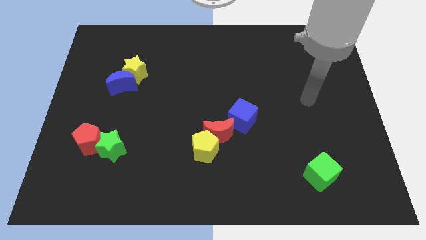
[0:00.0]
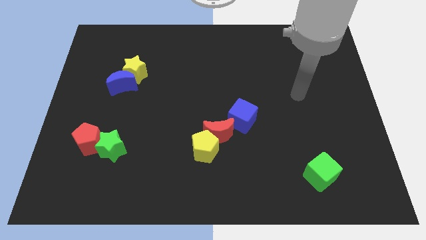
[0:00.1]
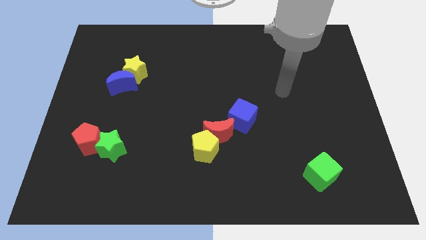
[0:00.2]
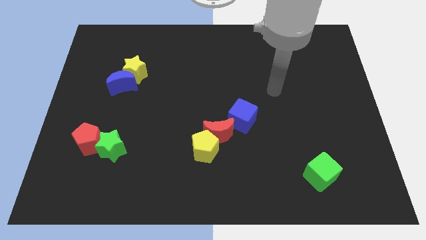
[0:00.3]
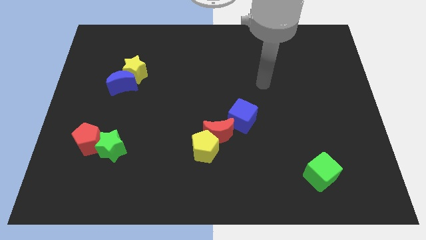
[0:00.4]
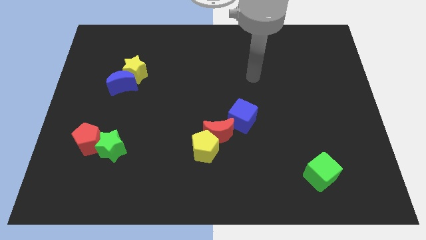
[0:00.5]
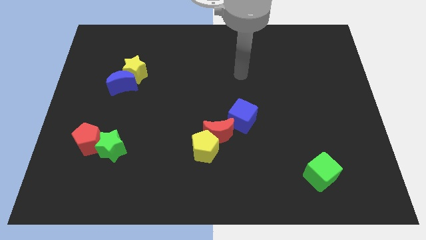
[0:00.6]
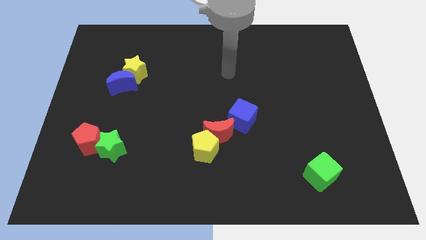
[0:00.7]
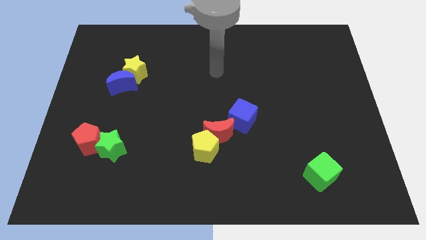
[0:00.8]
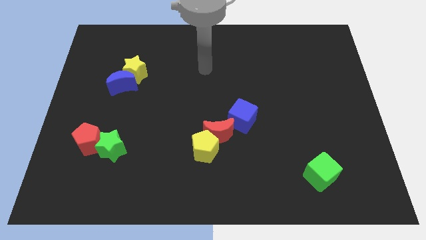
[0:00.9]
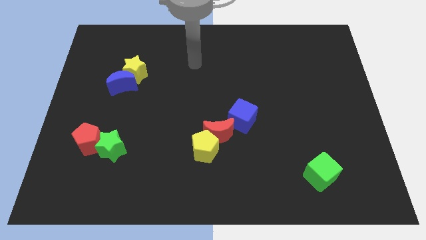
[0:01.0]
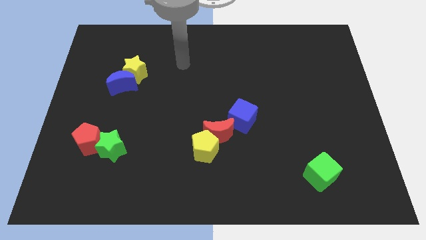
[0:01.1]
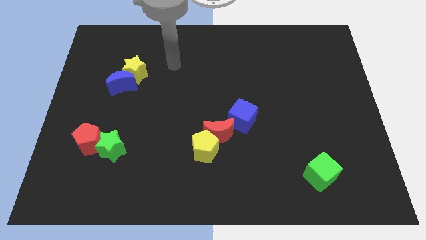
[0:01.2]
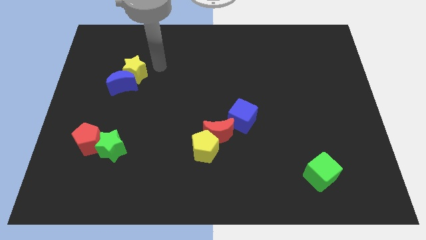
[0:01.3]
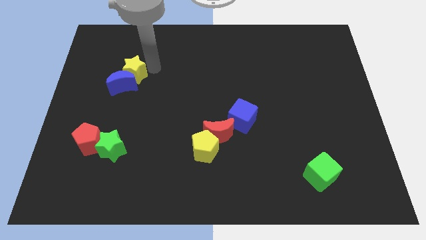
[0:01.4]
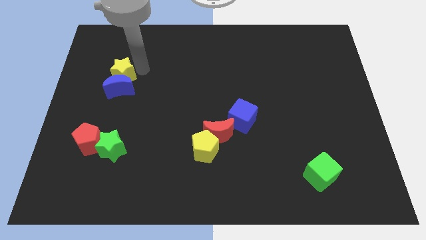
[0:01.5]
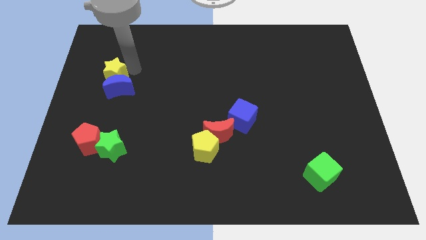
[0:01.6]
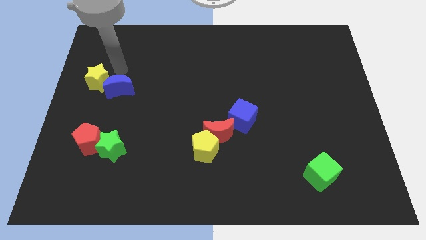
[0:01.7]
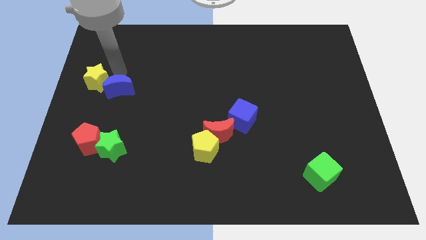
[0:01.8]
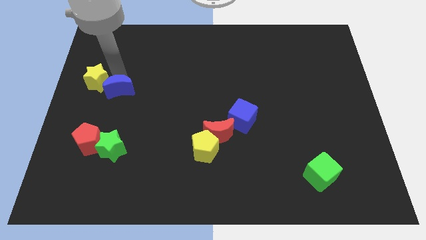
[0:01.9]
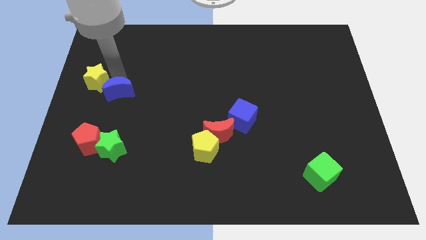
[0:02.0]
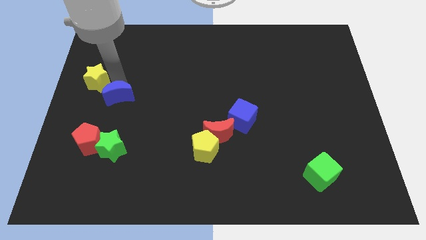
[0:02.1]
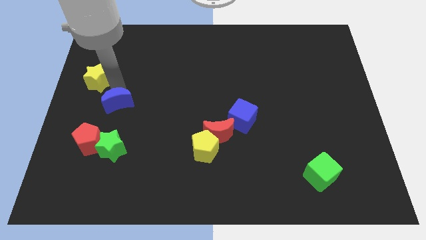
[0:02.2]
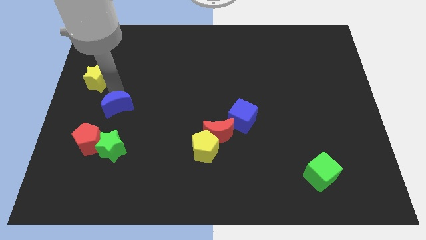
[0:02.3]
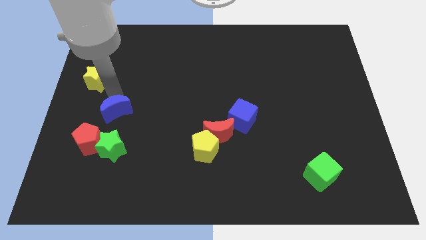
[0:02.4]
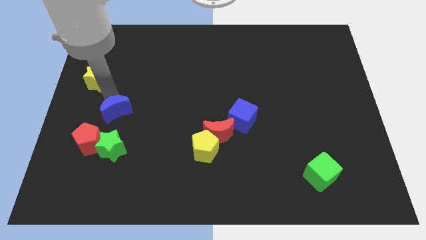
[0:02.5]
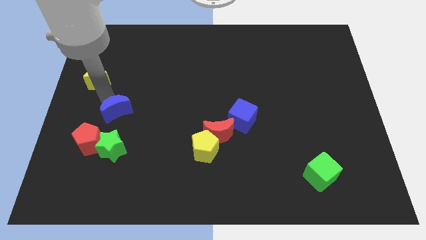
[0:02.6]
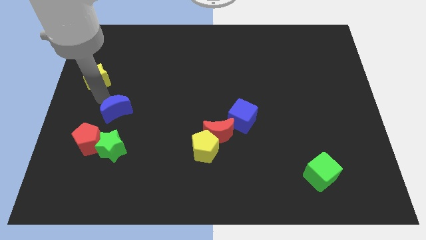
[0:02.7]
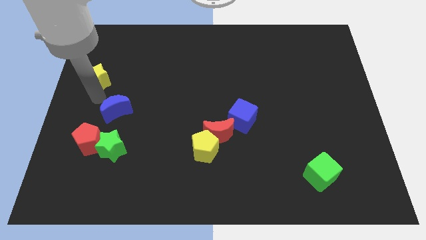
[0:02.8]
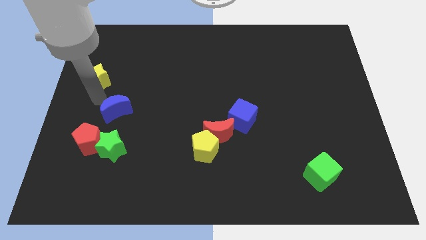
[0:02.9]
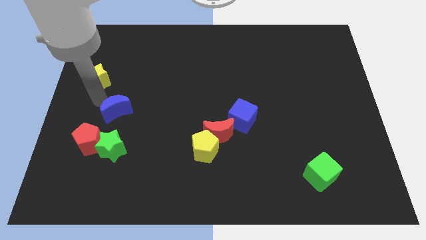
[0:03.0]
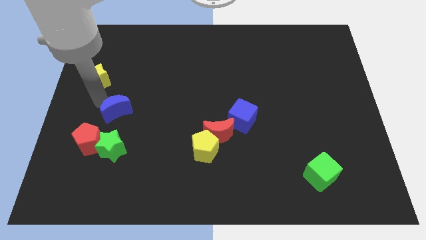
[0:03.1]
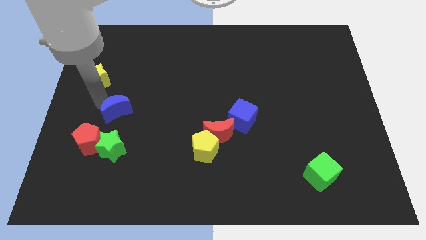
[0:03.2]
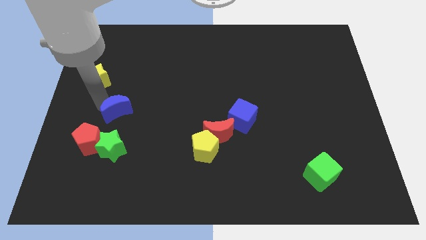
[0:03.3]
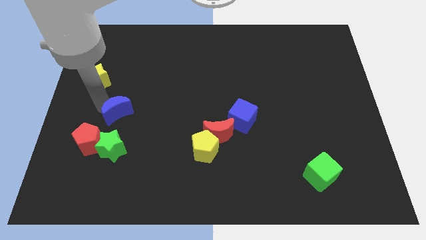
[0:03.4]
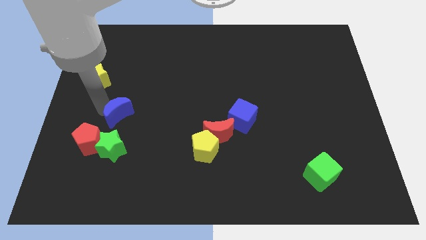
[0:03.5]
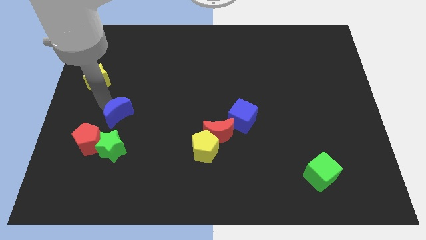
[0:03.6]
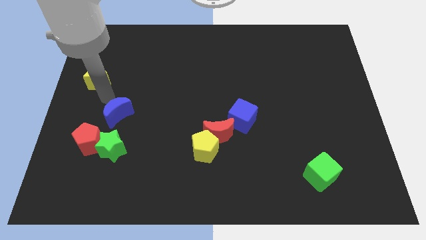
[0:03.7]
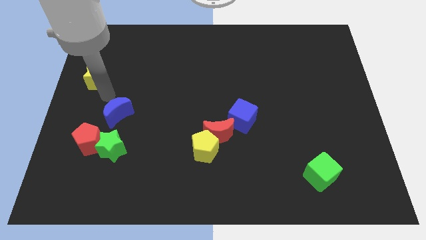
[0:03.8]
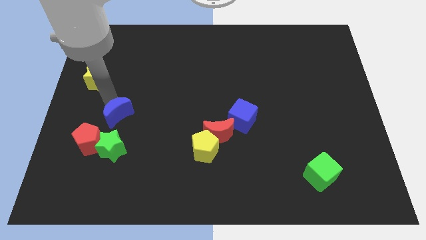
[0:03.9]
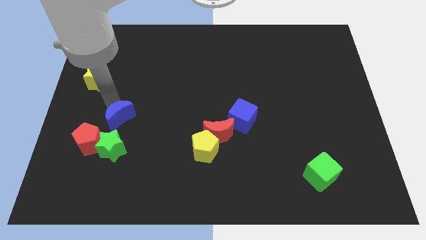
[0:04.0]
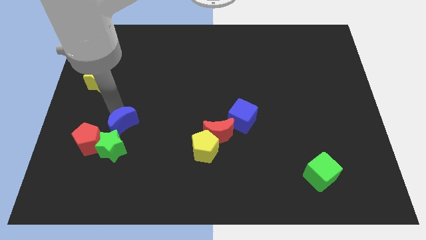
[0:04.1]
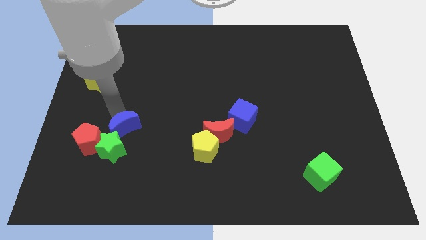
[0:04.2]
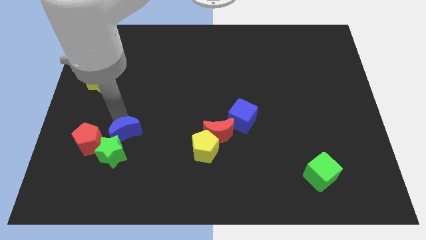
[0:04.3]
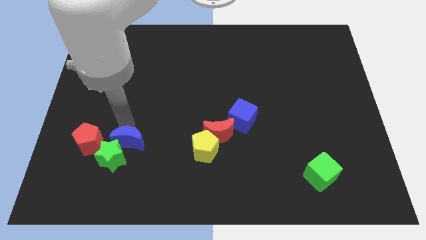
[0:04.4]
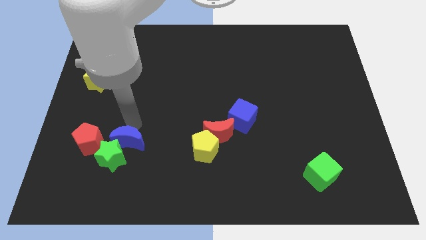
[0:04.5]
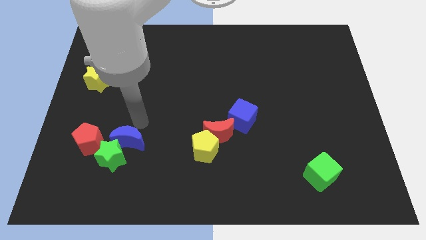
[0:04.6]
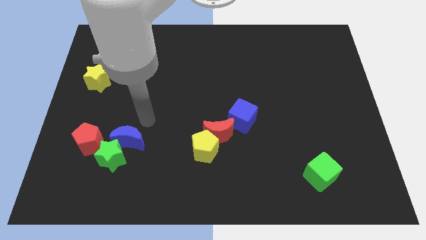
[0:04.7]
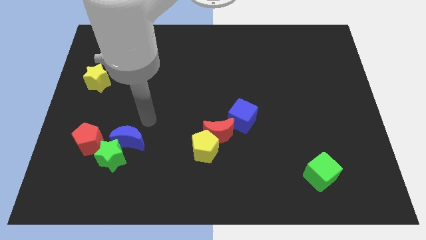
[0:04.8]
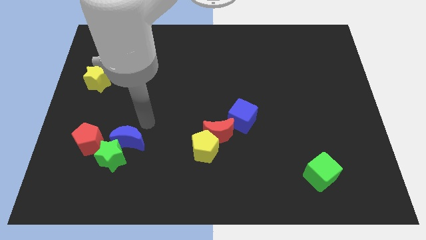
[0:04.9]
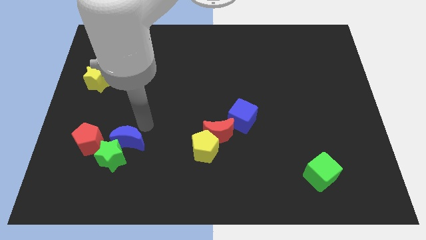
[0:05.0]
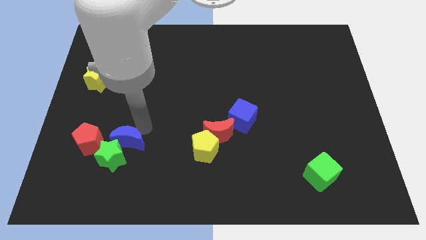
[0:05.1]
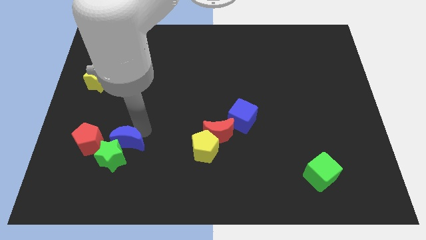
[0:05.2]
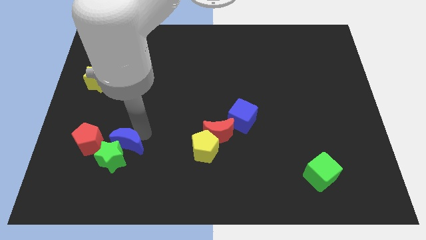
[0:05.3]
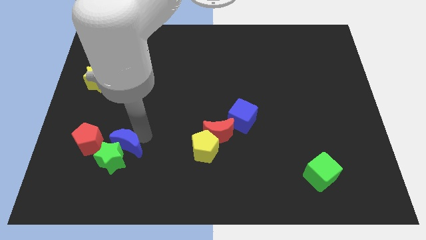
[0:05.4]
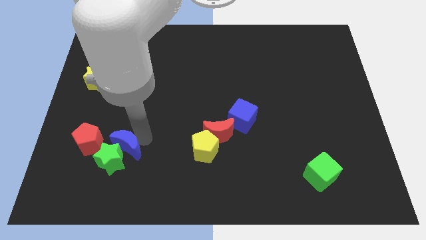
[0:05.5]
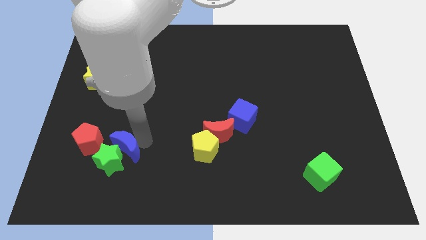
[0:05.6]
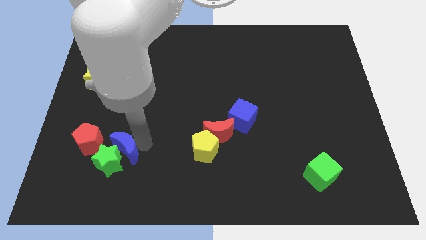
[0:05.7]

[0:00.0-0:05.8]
move the blue moon to the bottom right side of the red pentagon

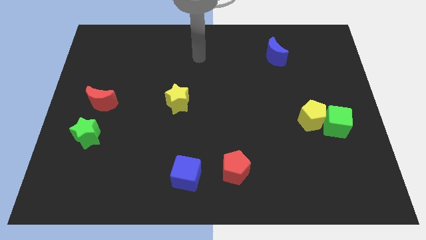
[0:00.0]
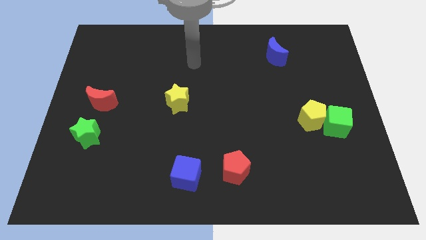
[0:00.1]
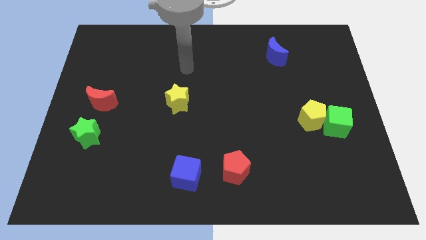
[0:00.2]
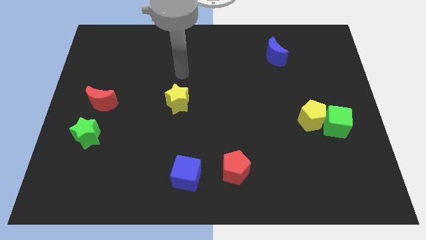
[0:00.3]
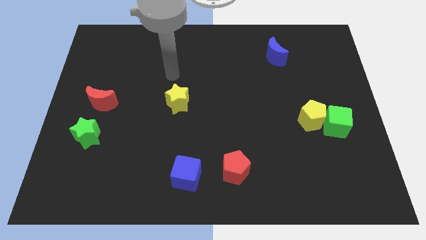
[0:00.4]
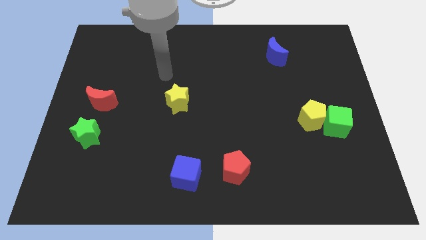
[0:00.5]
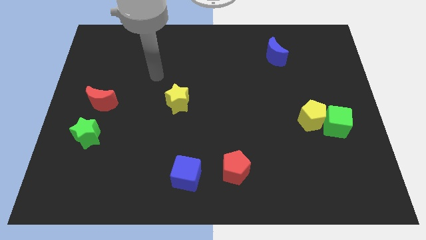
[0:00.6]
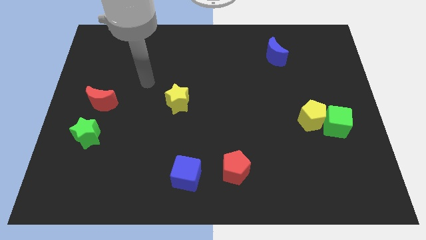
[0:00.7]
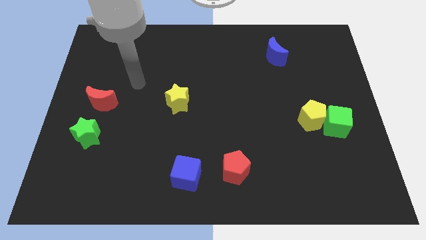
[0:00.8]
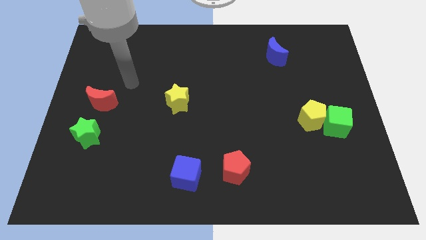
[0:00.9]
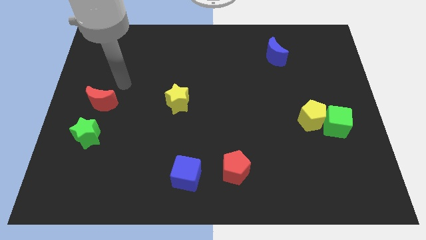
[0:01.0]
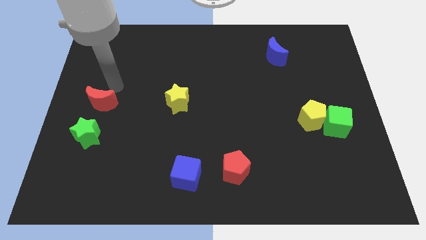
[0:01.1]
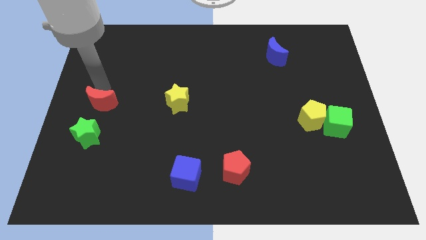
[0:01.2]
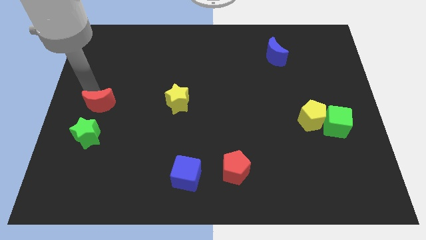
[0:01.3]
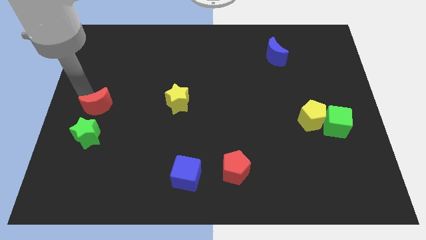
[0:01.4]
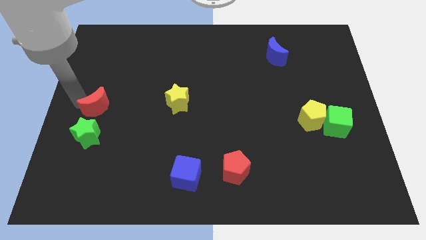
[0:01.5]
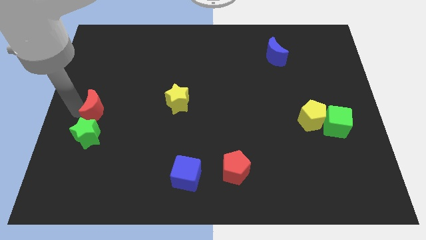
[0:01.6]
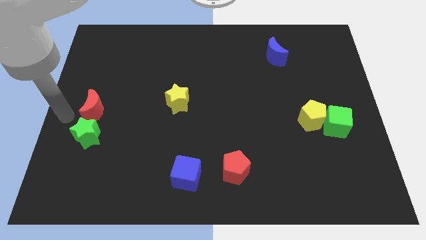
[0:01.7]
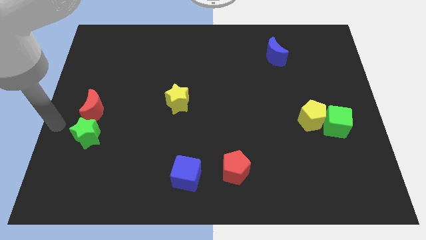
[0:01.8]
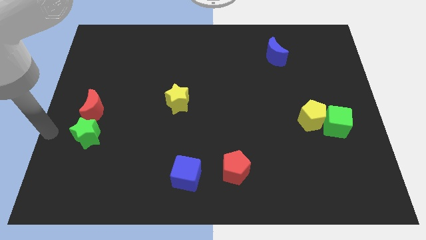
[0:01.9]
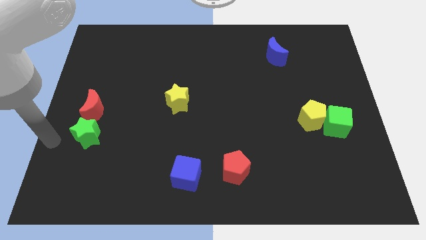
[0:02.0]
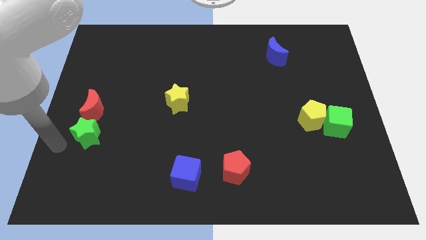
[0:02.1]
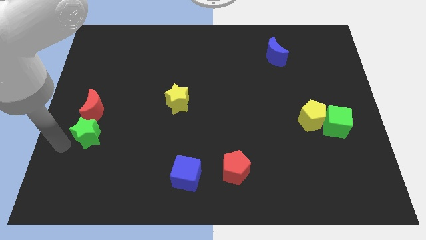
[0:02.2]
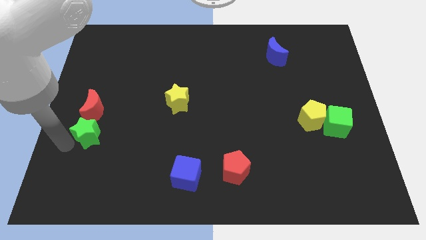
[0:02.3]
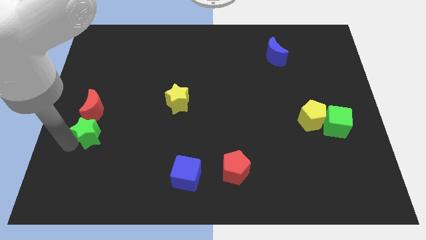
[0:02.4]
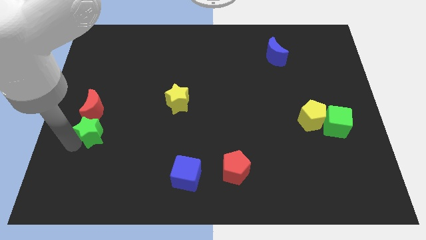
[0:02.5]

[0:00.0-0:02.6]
move the green star to the bottom right side of the red moon
